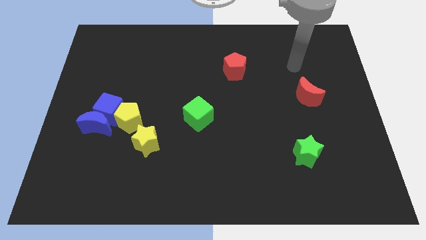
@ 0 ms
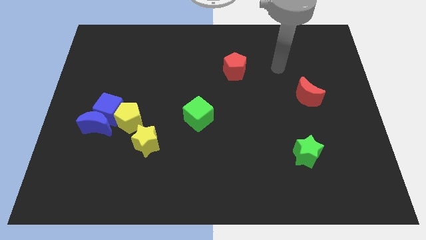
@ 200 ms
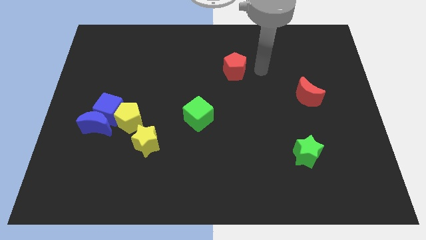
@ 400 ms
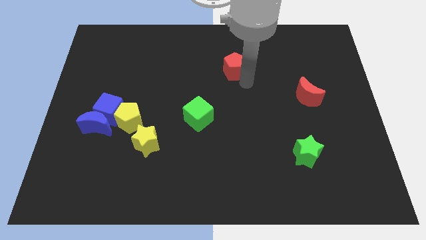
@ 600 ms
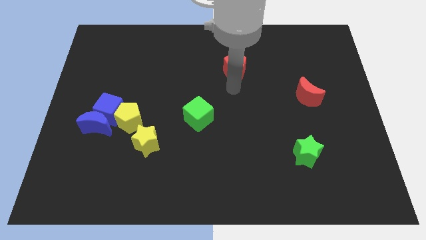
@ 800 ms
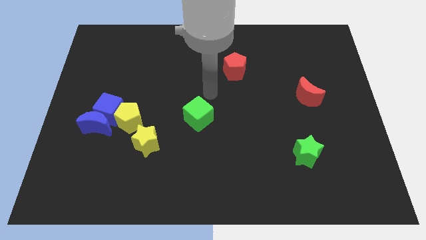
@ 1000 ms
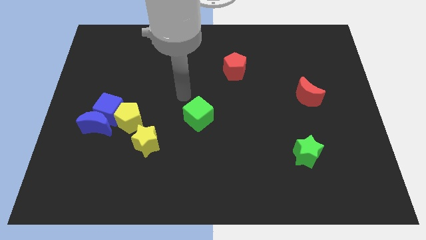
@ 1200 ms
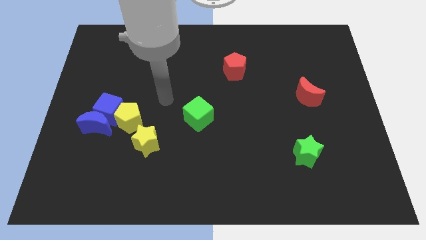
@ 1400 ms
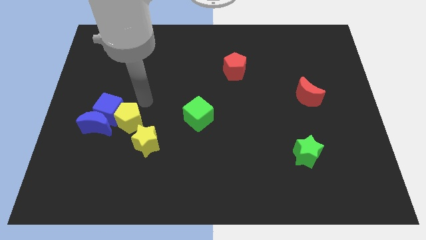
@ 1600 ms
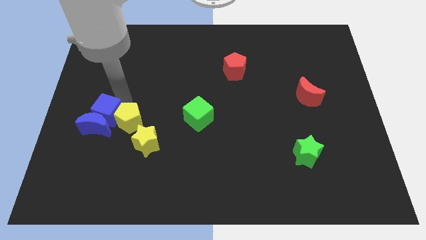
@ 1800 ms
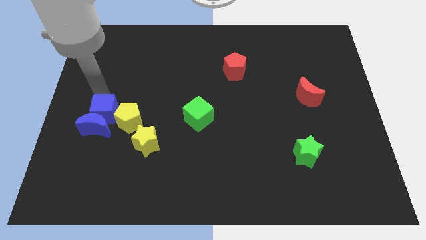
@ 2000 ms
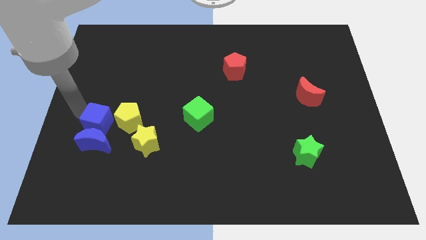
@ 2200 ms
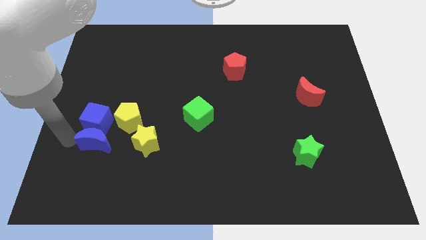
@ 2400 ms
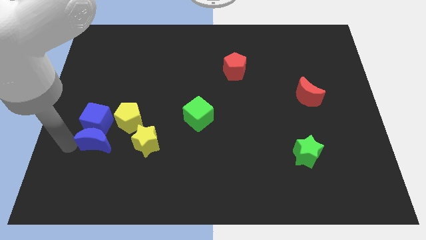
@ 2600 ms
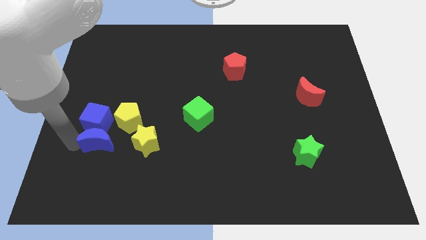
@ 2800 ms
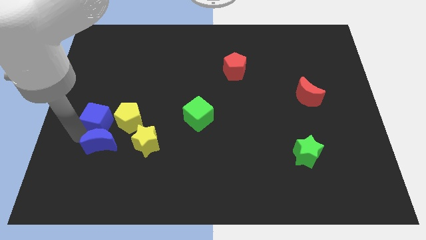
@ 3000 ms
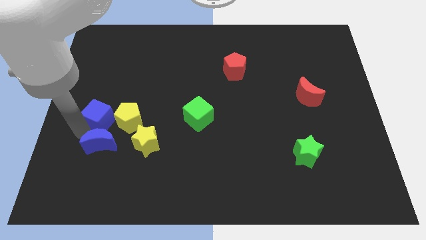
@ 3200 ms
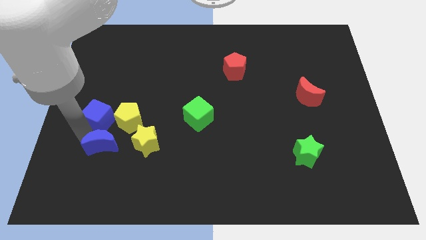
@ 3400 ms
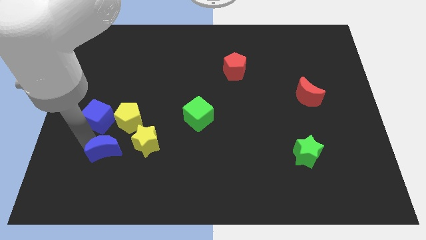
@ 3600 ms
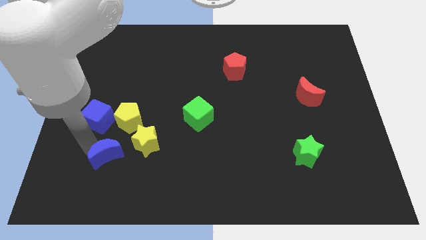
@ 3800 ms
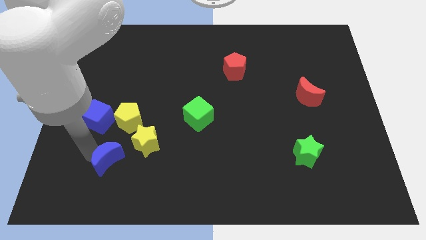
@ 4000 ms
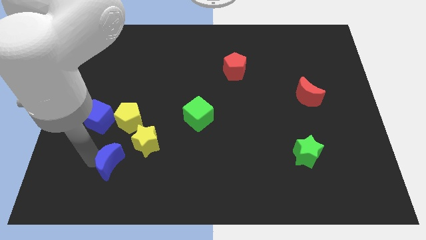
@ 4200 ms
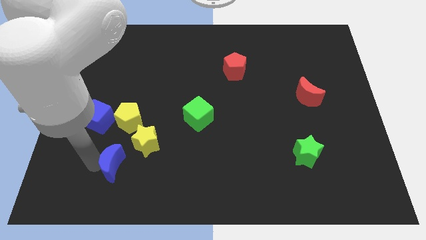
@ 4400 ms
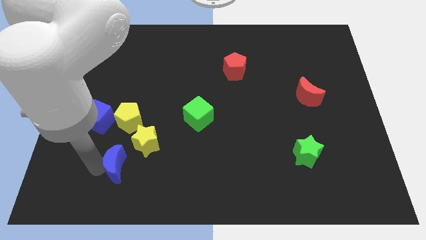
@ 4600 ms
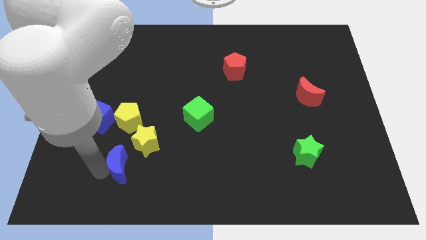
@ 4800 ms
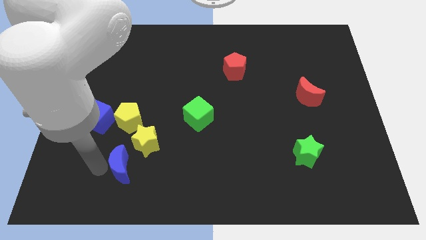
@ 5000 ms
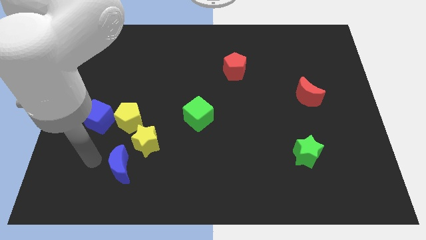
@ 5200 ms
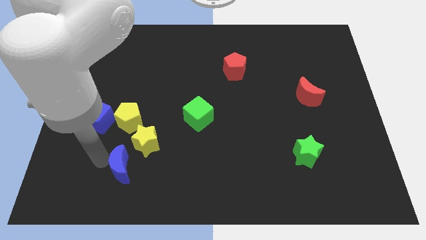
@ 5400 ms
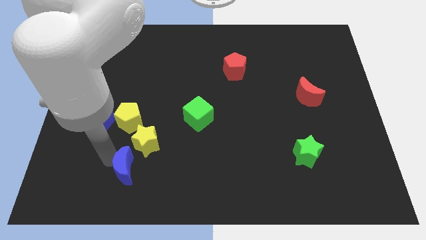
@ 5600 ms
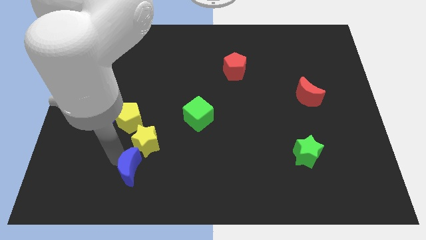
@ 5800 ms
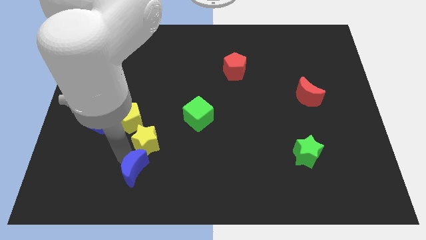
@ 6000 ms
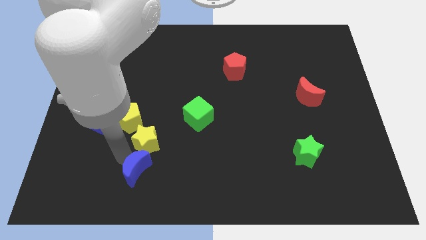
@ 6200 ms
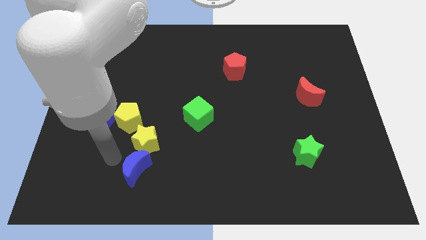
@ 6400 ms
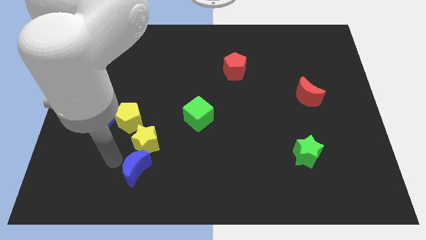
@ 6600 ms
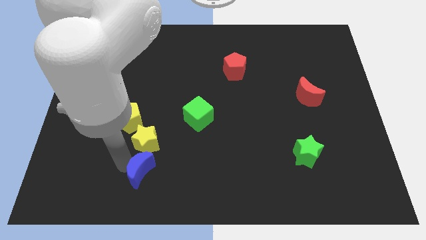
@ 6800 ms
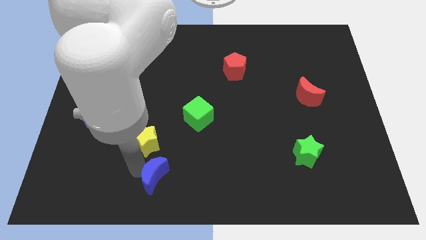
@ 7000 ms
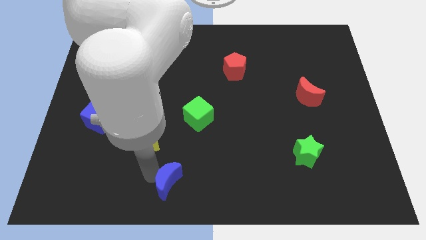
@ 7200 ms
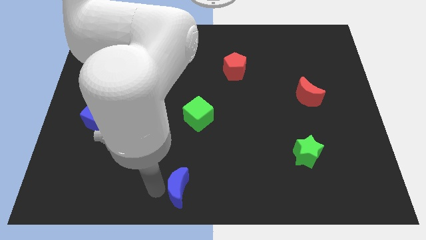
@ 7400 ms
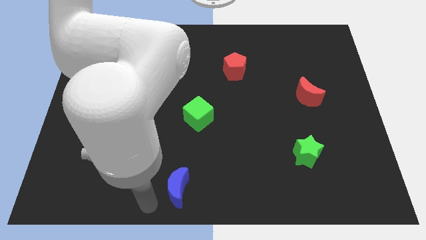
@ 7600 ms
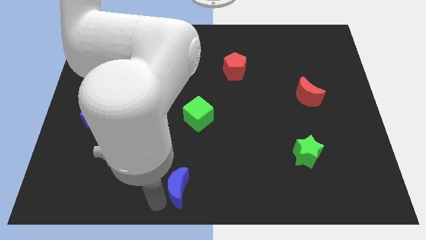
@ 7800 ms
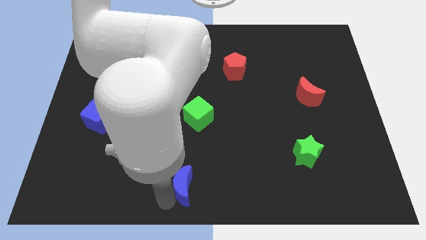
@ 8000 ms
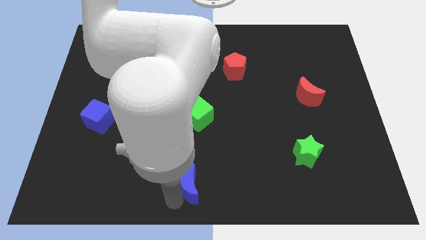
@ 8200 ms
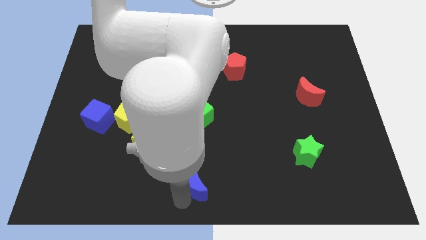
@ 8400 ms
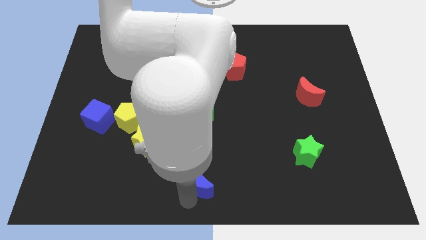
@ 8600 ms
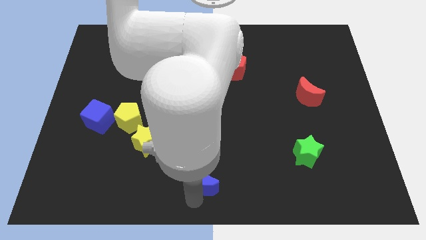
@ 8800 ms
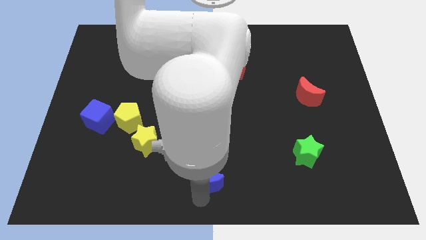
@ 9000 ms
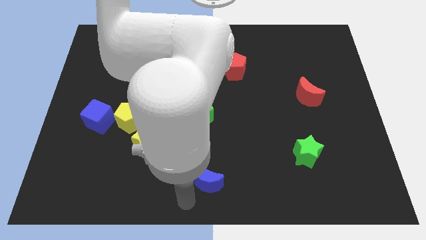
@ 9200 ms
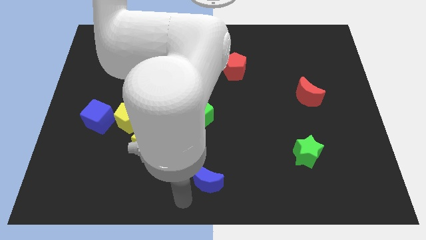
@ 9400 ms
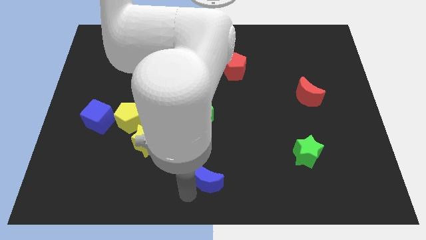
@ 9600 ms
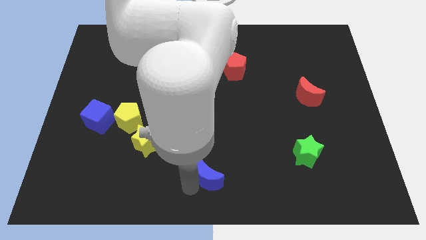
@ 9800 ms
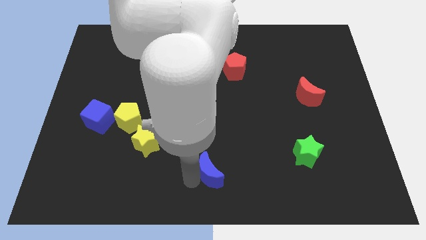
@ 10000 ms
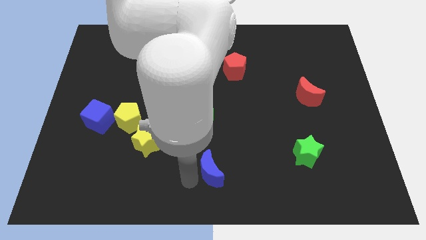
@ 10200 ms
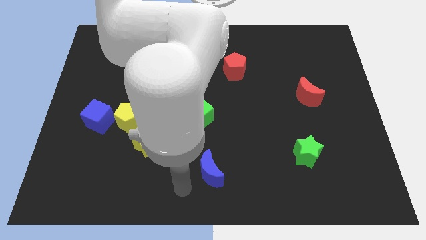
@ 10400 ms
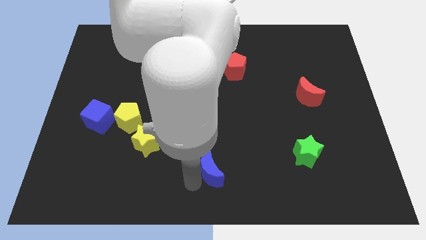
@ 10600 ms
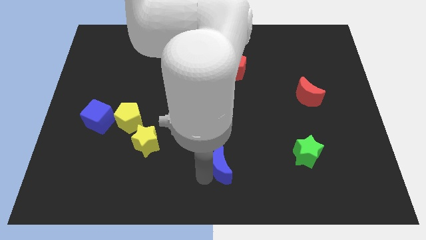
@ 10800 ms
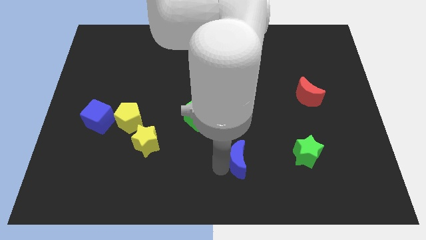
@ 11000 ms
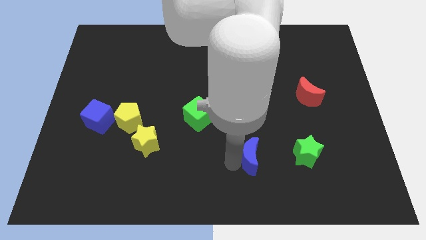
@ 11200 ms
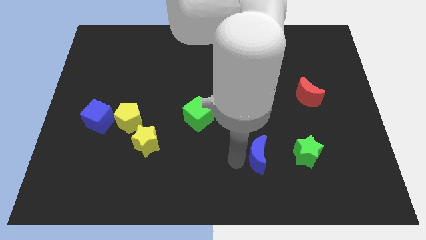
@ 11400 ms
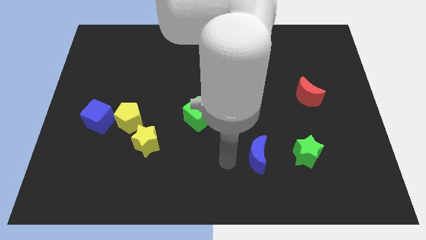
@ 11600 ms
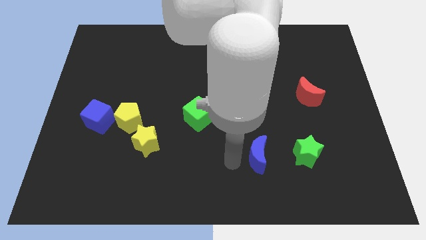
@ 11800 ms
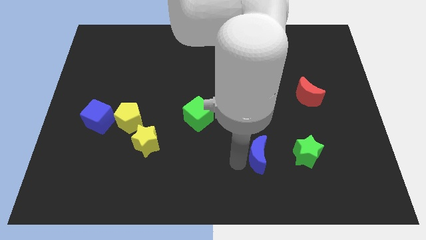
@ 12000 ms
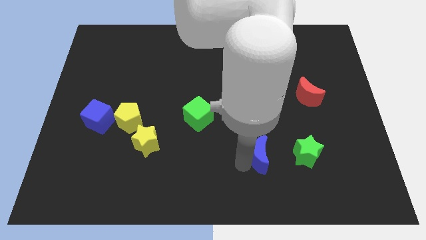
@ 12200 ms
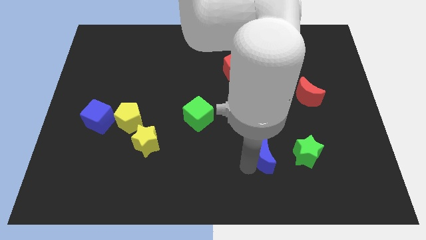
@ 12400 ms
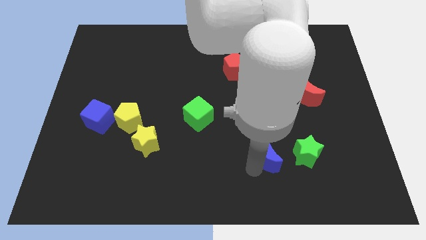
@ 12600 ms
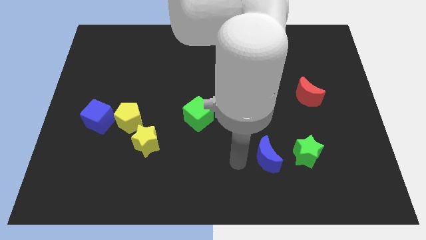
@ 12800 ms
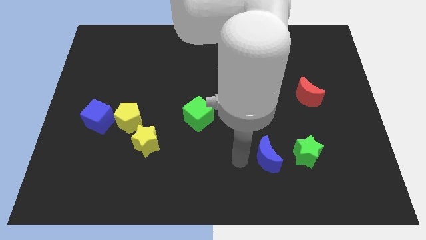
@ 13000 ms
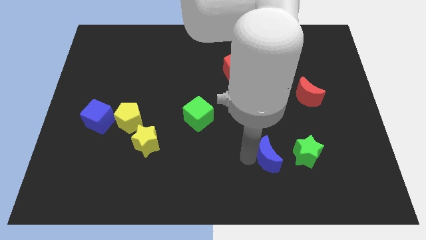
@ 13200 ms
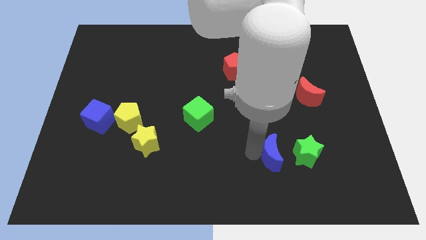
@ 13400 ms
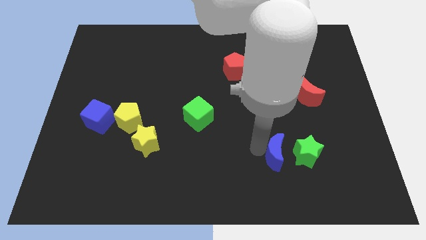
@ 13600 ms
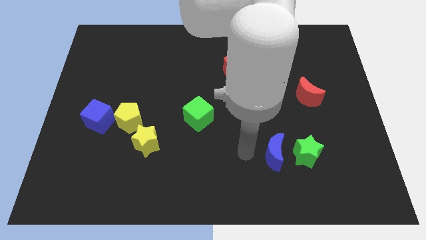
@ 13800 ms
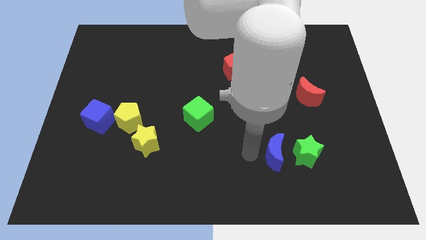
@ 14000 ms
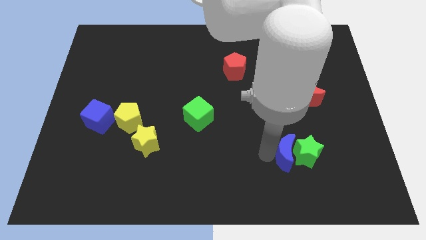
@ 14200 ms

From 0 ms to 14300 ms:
push the blue moon close to the green star
